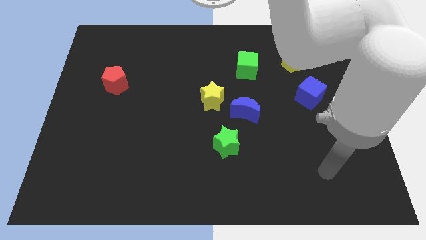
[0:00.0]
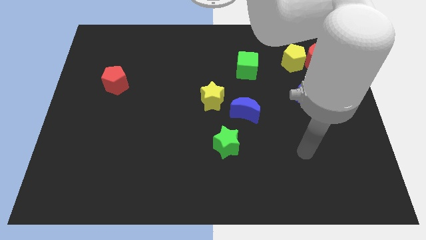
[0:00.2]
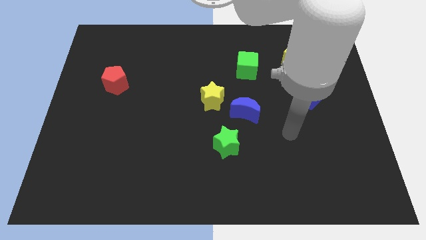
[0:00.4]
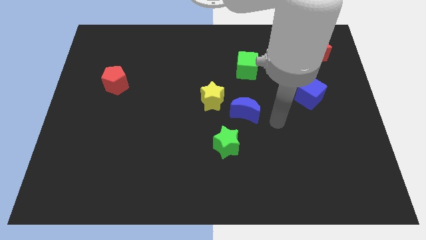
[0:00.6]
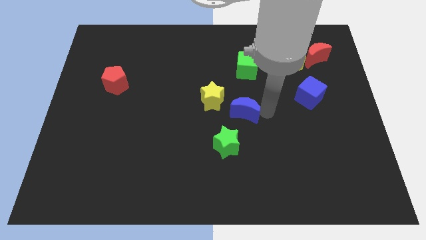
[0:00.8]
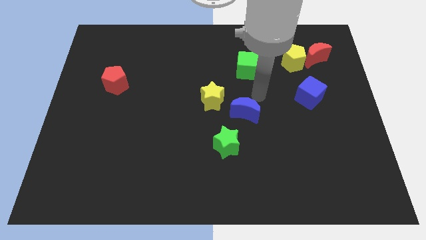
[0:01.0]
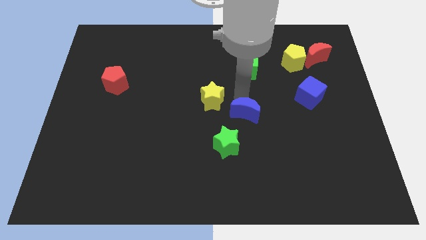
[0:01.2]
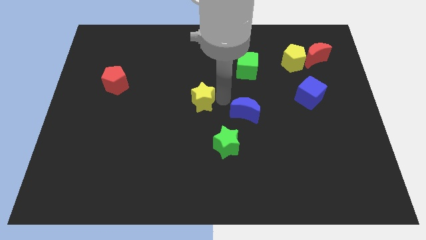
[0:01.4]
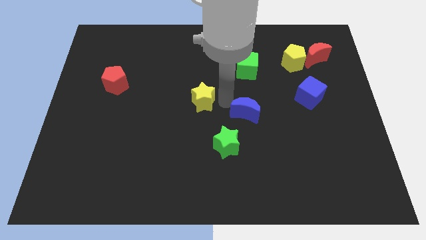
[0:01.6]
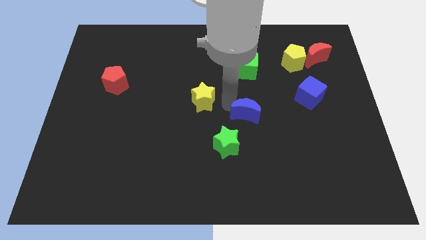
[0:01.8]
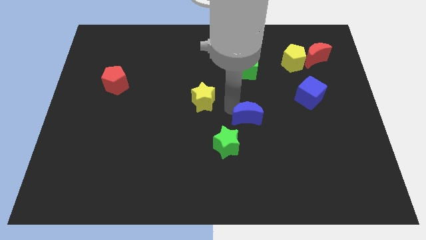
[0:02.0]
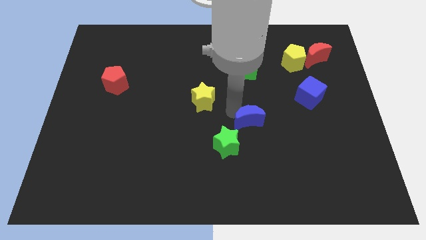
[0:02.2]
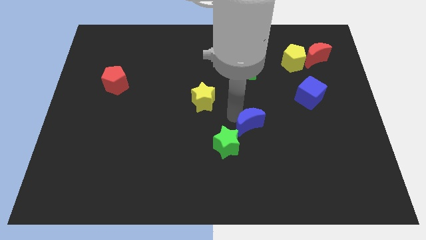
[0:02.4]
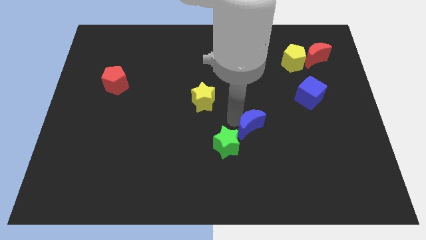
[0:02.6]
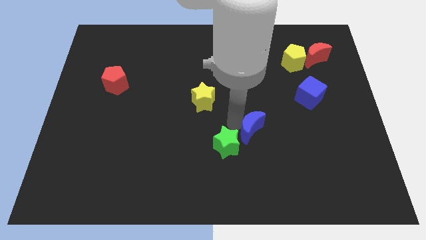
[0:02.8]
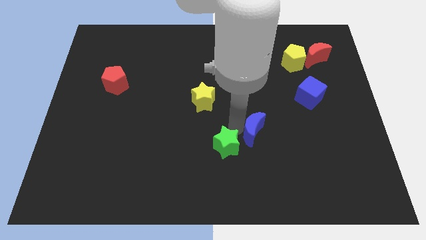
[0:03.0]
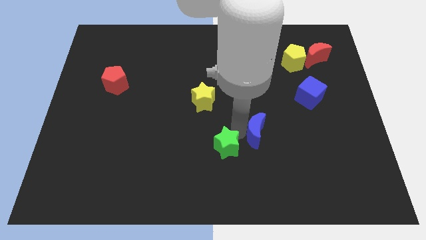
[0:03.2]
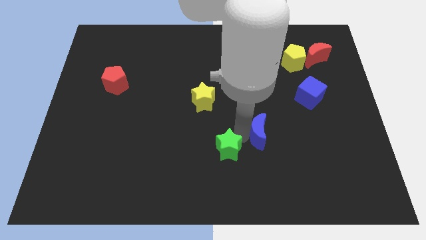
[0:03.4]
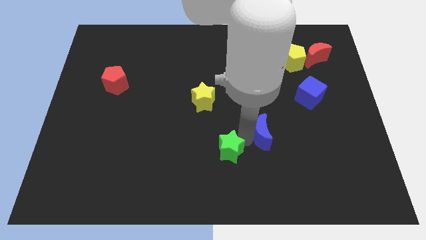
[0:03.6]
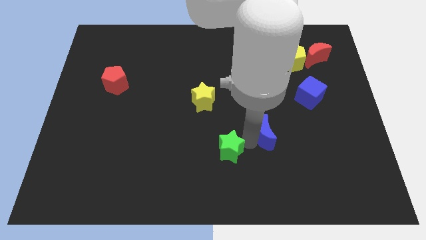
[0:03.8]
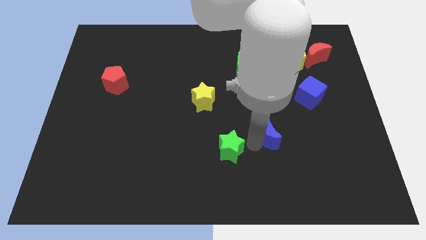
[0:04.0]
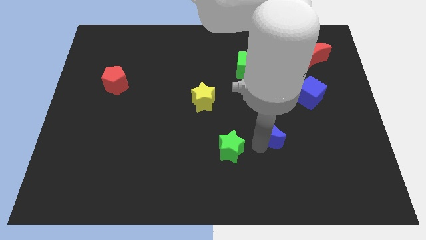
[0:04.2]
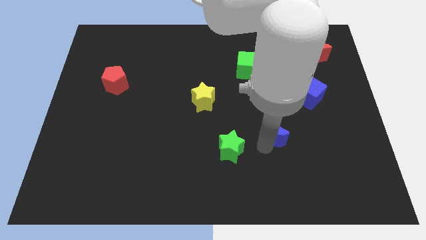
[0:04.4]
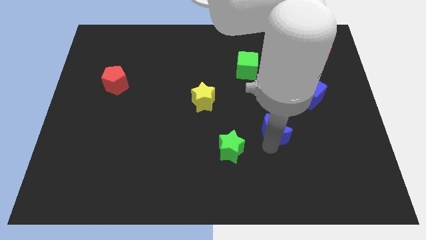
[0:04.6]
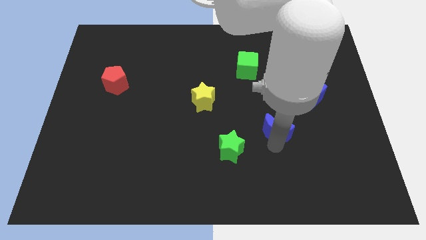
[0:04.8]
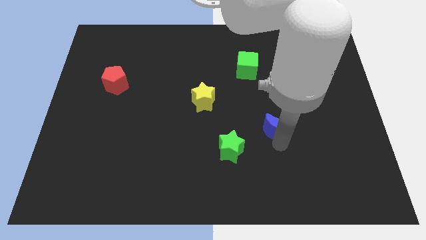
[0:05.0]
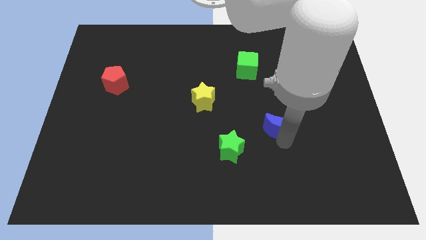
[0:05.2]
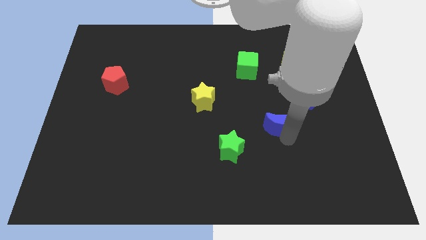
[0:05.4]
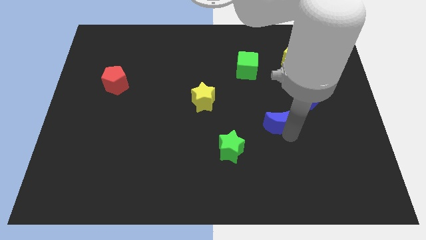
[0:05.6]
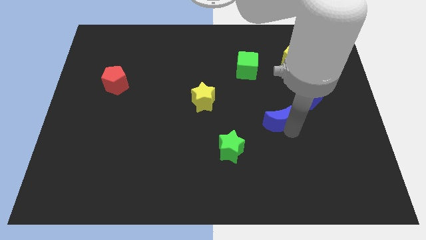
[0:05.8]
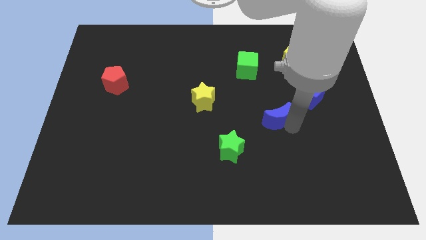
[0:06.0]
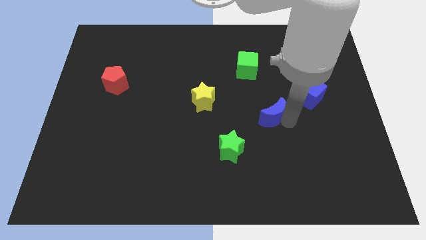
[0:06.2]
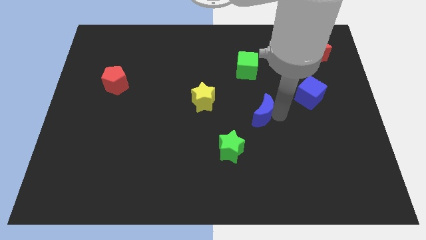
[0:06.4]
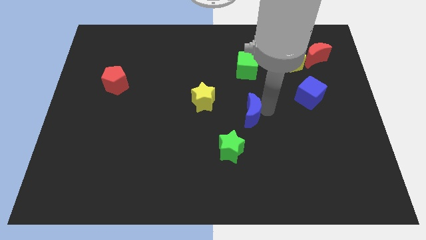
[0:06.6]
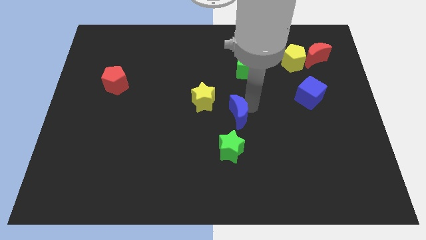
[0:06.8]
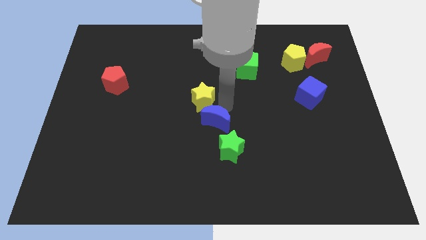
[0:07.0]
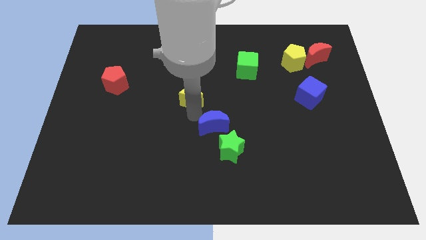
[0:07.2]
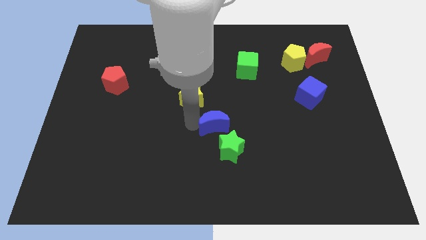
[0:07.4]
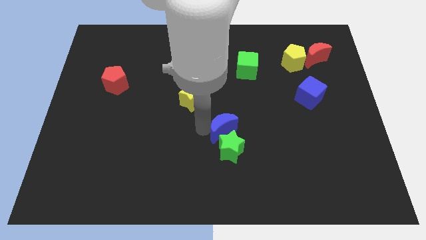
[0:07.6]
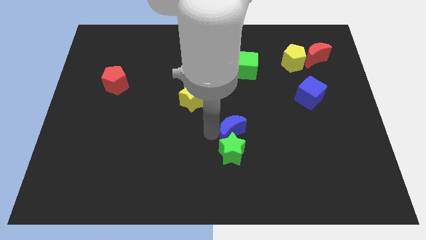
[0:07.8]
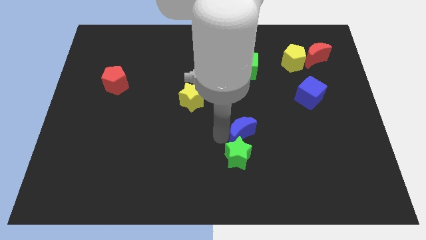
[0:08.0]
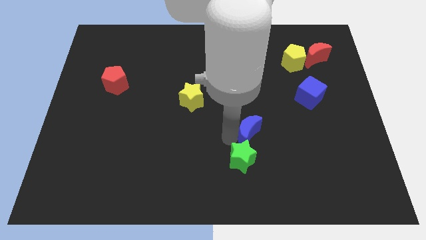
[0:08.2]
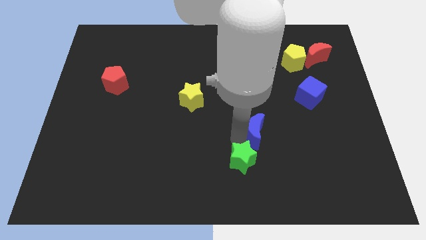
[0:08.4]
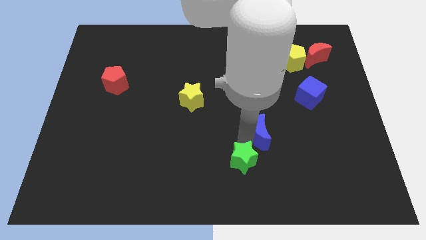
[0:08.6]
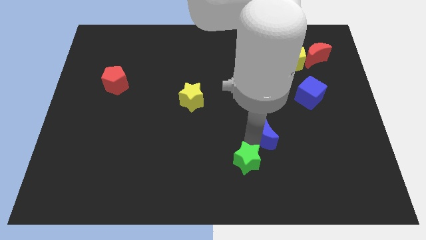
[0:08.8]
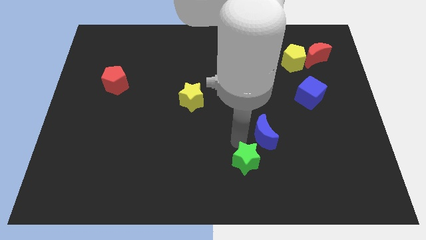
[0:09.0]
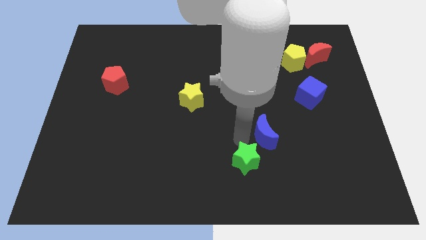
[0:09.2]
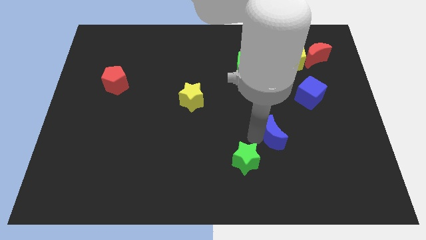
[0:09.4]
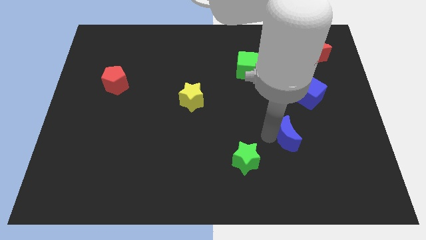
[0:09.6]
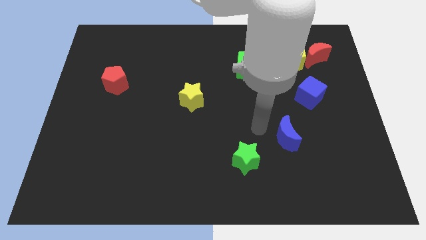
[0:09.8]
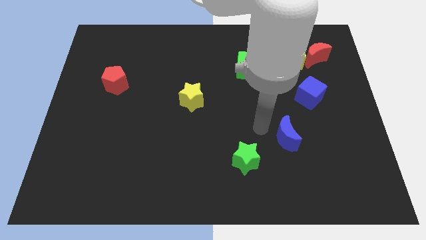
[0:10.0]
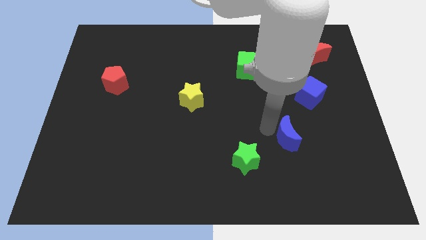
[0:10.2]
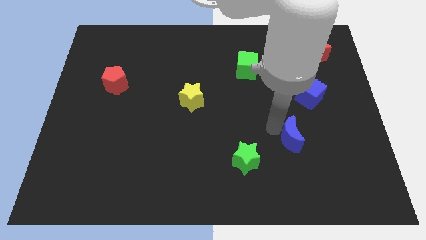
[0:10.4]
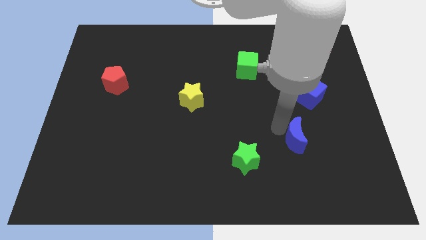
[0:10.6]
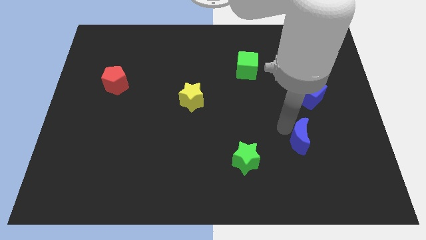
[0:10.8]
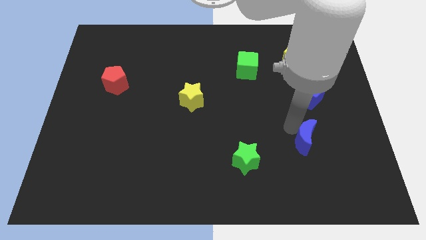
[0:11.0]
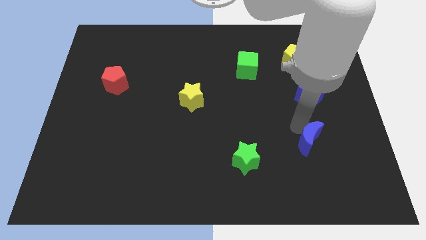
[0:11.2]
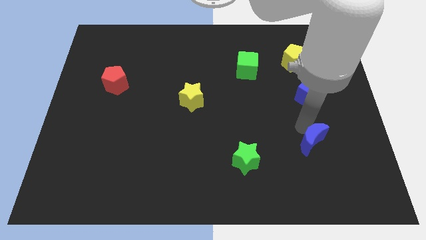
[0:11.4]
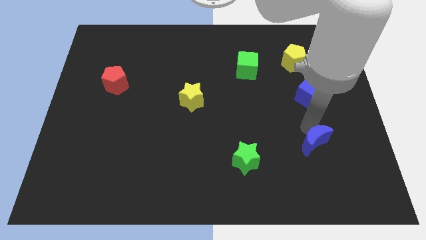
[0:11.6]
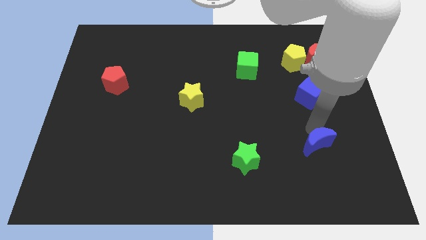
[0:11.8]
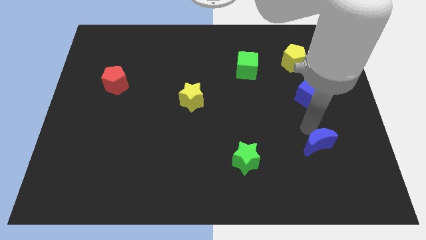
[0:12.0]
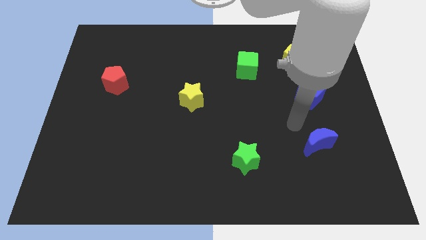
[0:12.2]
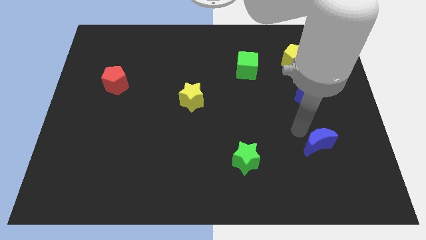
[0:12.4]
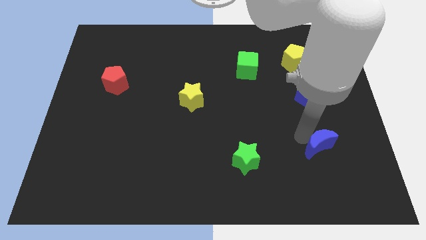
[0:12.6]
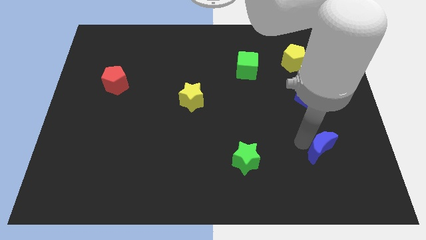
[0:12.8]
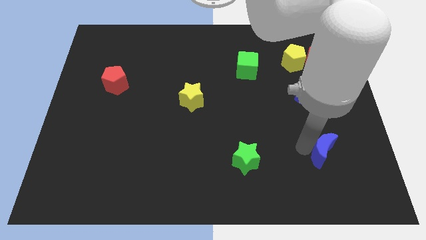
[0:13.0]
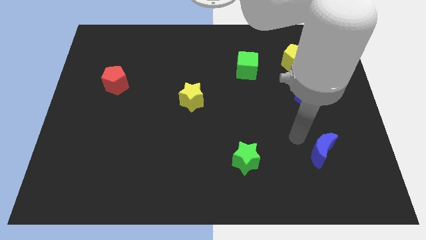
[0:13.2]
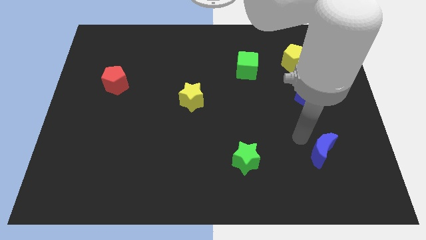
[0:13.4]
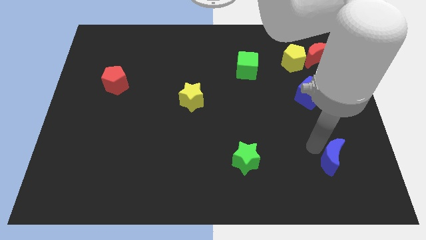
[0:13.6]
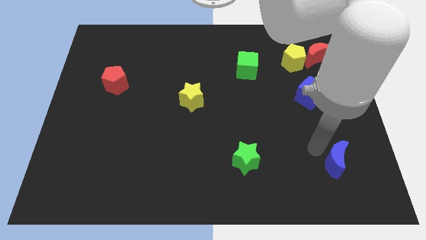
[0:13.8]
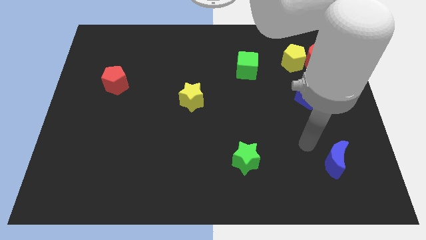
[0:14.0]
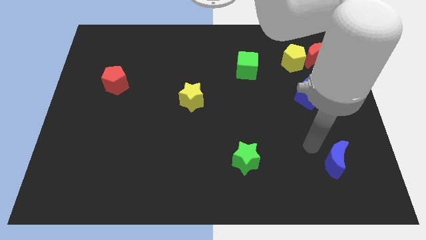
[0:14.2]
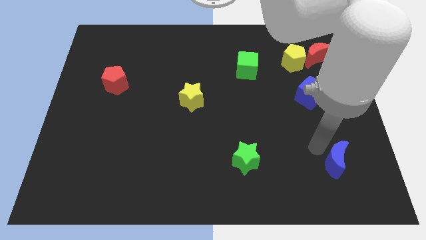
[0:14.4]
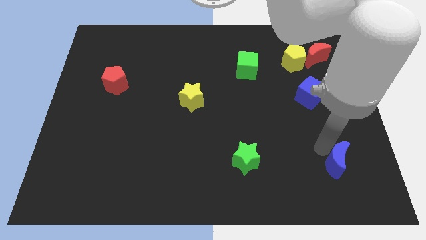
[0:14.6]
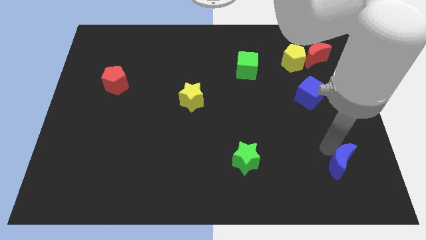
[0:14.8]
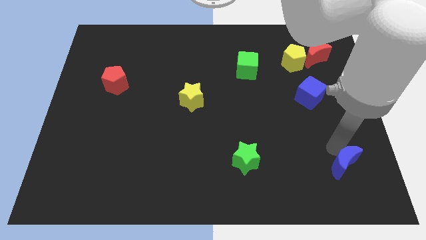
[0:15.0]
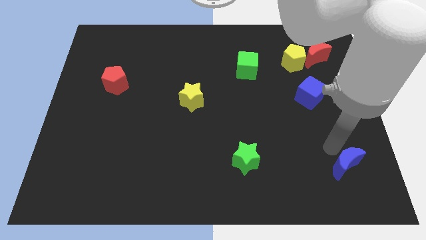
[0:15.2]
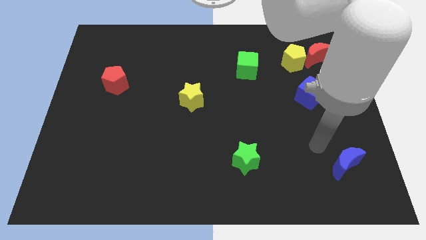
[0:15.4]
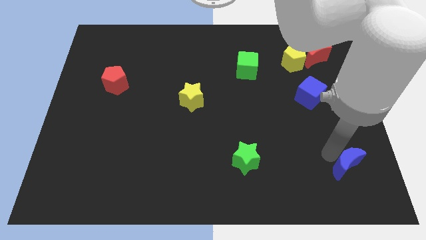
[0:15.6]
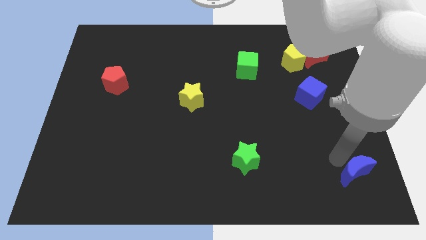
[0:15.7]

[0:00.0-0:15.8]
push the blue moon to the bottom right corner
